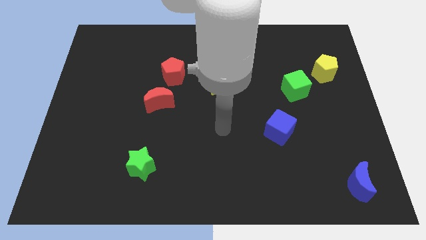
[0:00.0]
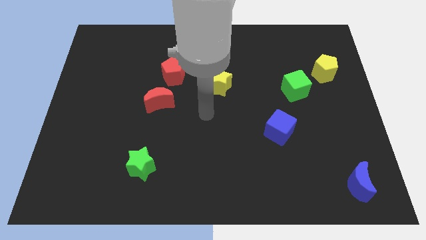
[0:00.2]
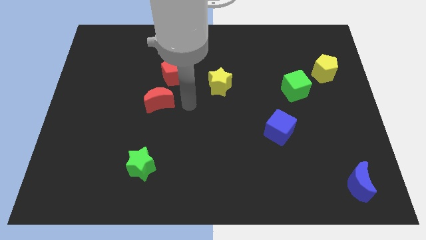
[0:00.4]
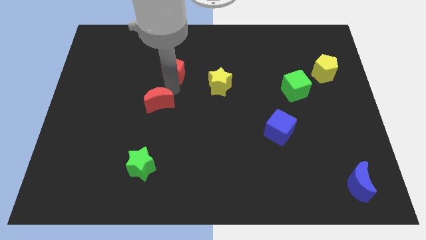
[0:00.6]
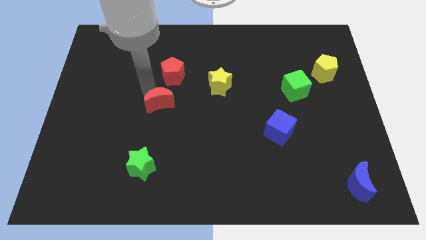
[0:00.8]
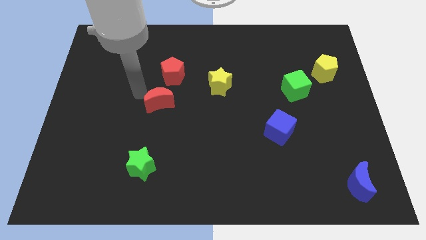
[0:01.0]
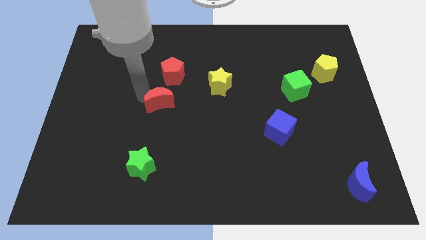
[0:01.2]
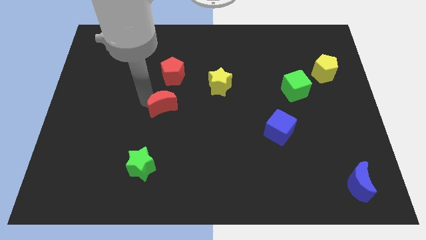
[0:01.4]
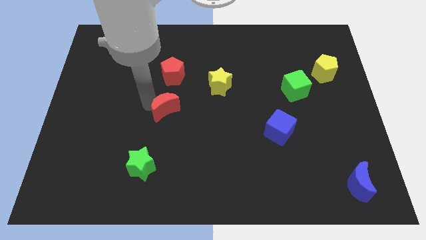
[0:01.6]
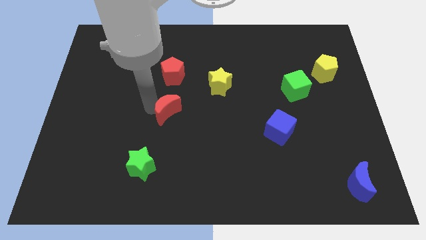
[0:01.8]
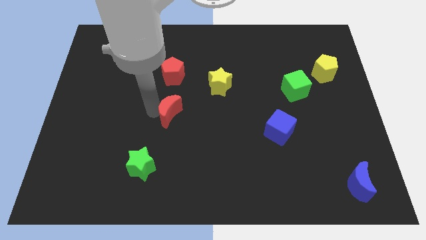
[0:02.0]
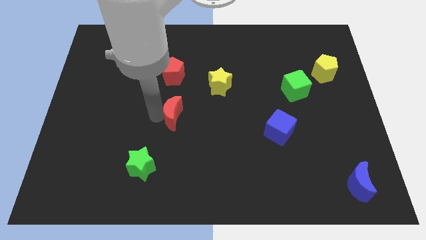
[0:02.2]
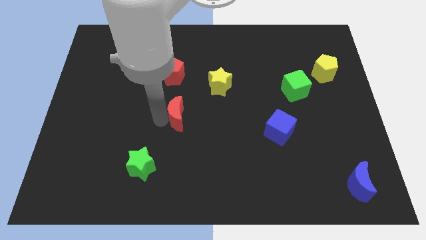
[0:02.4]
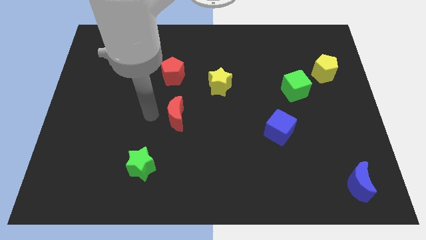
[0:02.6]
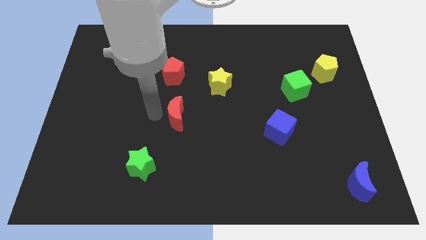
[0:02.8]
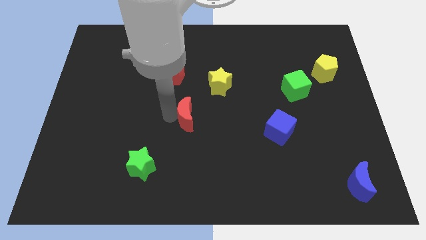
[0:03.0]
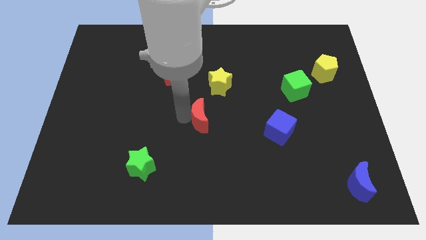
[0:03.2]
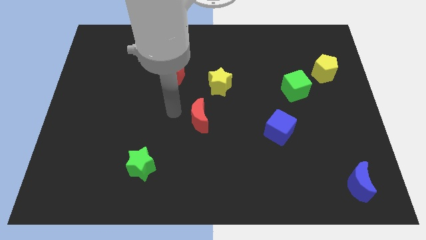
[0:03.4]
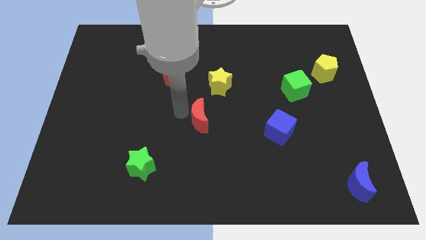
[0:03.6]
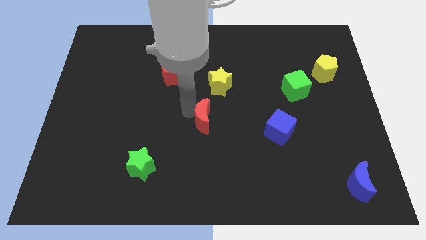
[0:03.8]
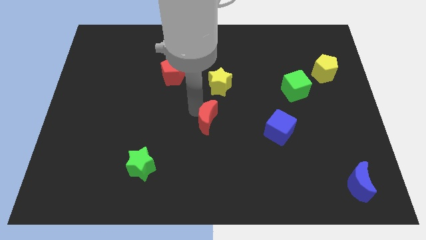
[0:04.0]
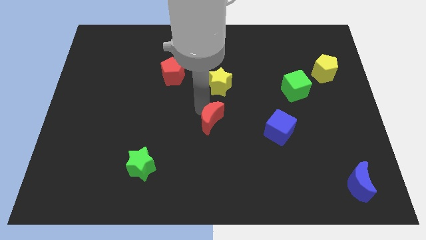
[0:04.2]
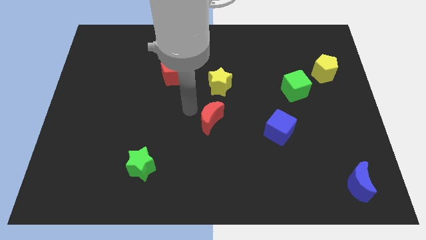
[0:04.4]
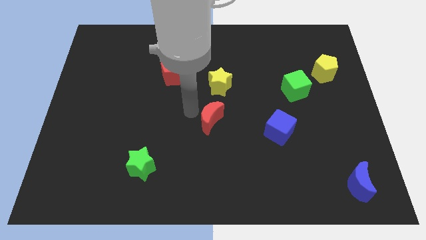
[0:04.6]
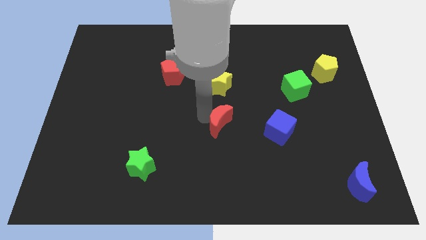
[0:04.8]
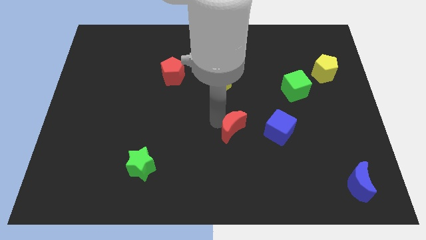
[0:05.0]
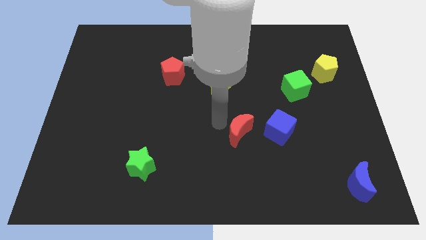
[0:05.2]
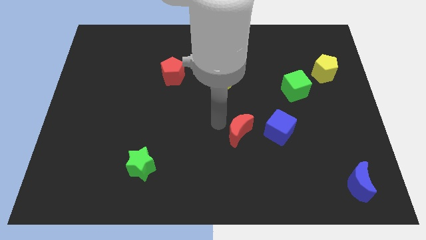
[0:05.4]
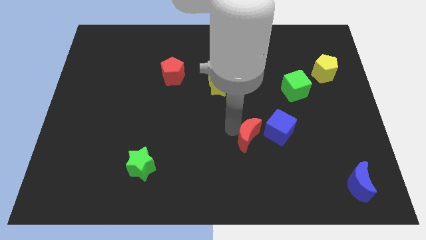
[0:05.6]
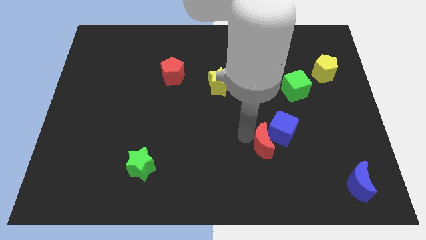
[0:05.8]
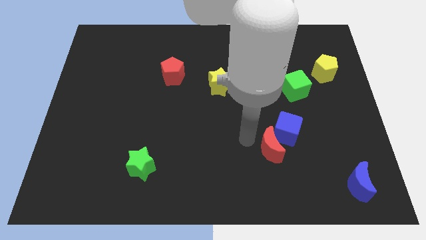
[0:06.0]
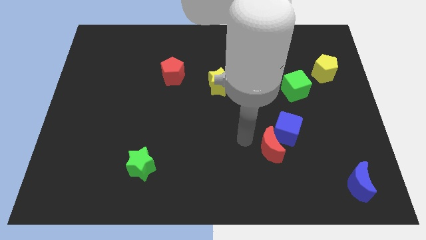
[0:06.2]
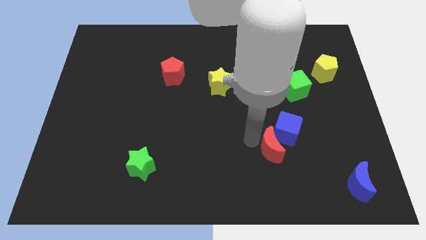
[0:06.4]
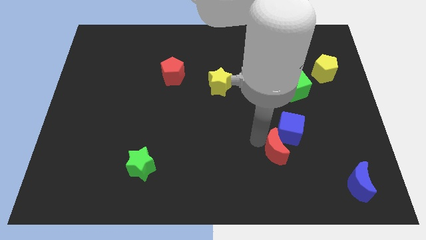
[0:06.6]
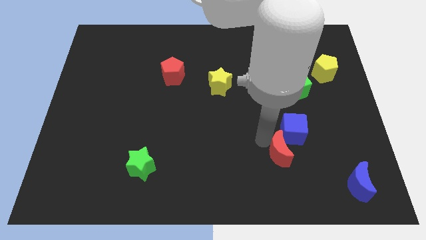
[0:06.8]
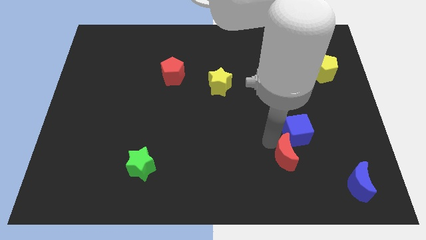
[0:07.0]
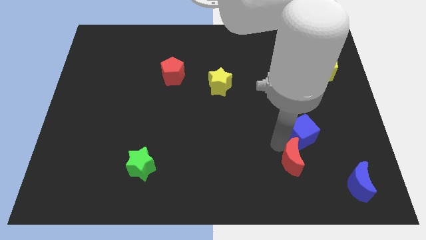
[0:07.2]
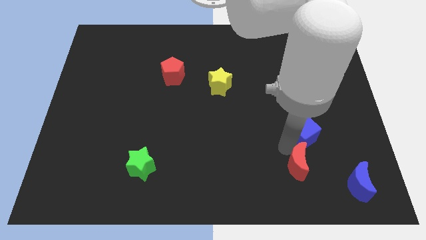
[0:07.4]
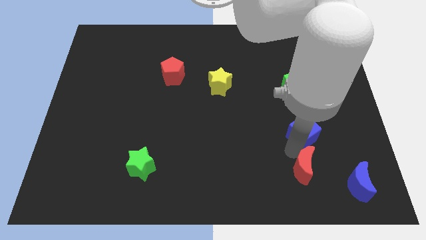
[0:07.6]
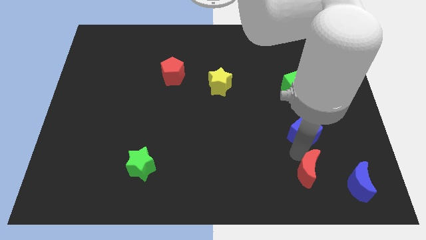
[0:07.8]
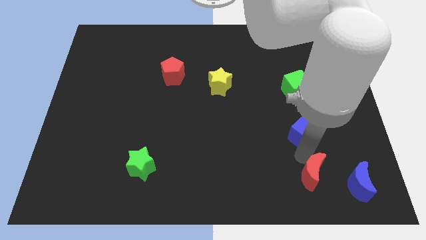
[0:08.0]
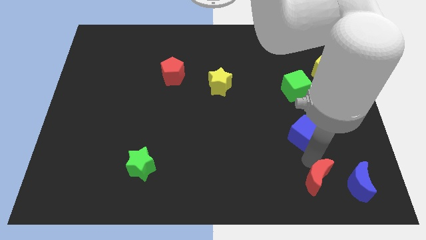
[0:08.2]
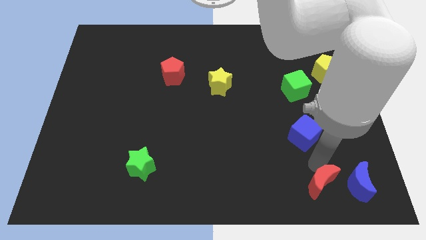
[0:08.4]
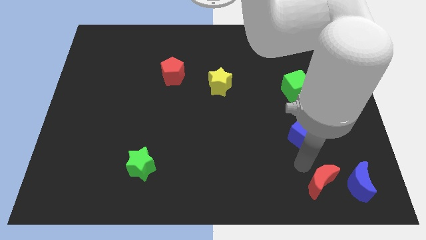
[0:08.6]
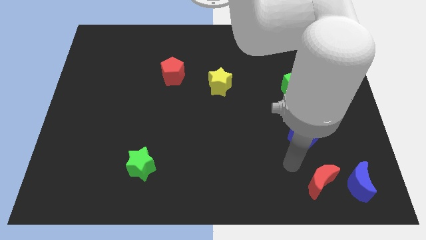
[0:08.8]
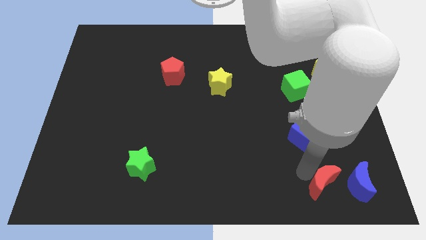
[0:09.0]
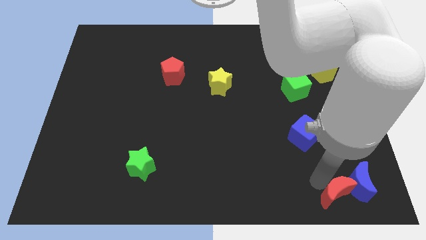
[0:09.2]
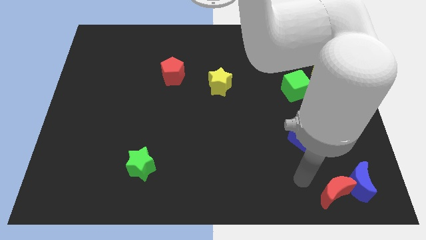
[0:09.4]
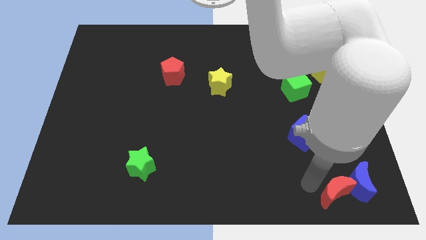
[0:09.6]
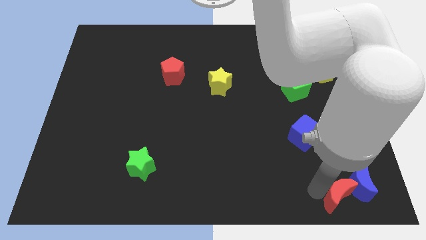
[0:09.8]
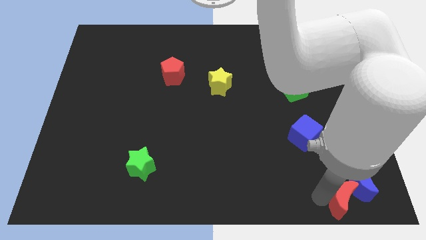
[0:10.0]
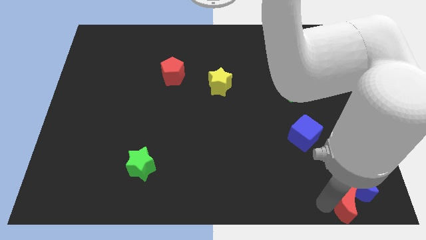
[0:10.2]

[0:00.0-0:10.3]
push the red moon to the bottom right corner

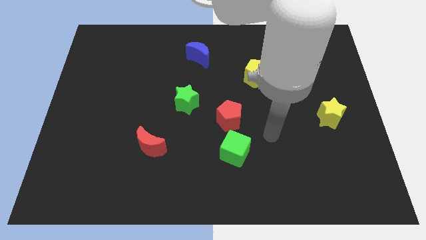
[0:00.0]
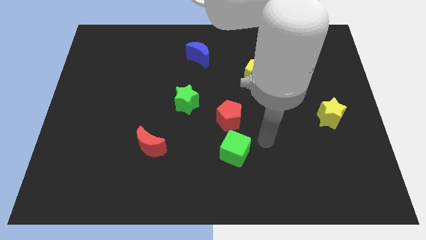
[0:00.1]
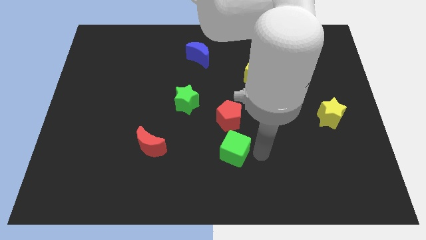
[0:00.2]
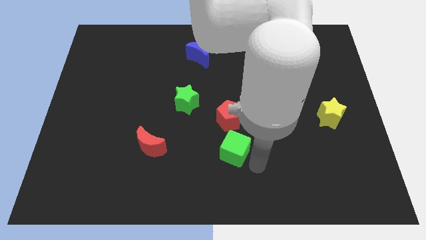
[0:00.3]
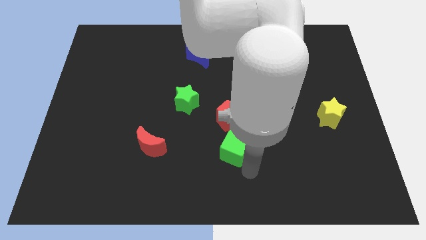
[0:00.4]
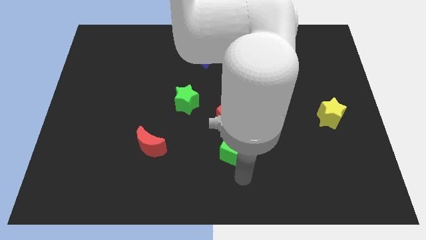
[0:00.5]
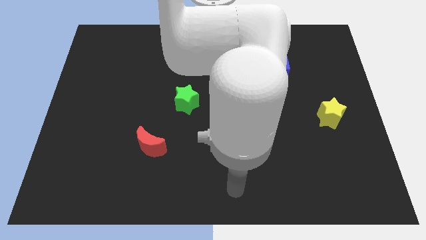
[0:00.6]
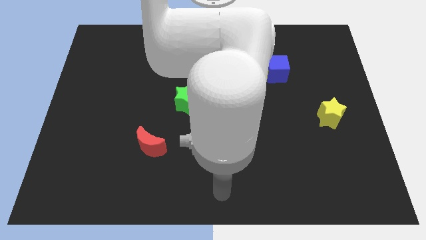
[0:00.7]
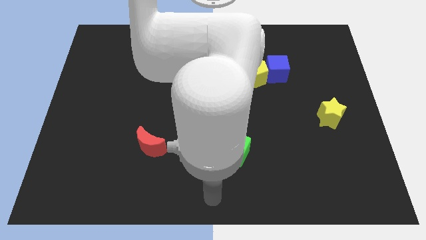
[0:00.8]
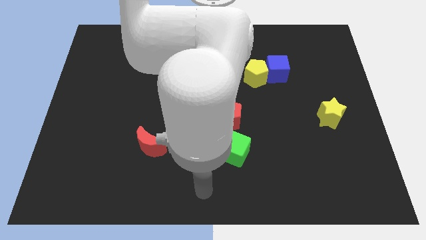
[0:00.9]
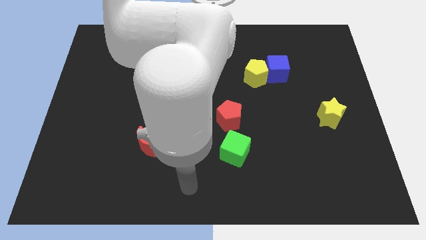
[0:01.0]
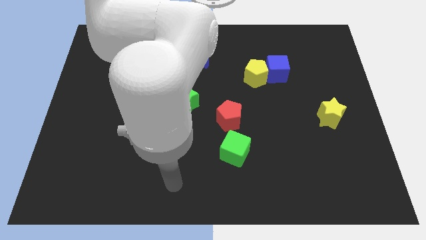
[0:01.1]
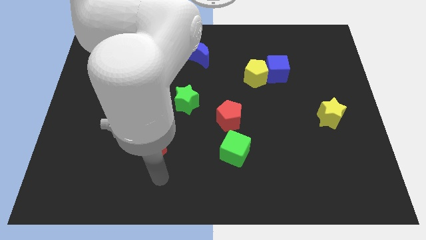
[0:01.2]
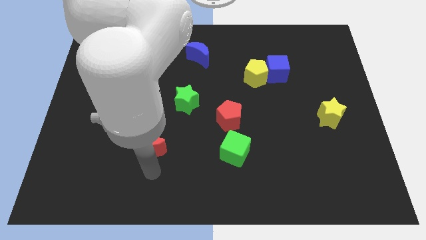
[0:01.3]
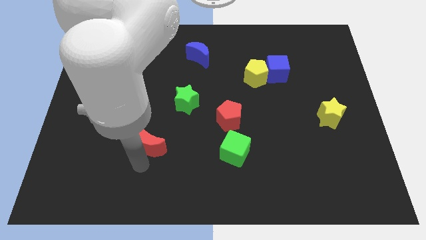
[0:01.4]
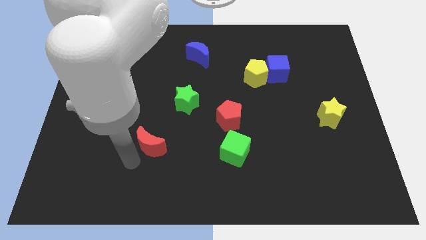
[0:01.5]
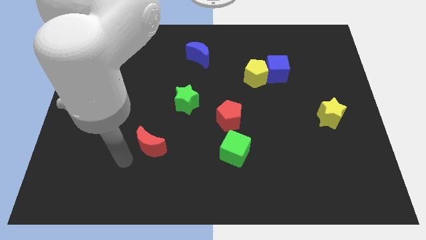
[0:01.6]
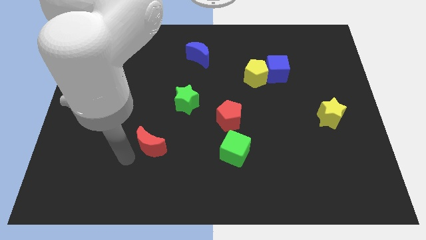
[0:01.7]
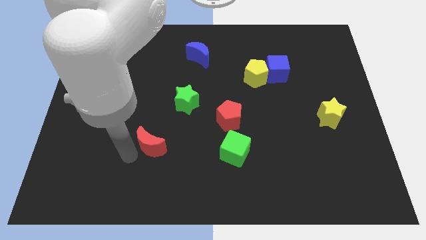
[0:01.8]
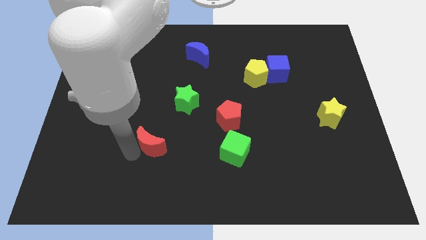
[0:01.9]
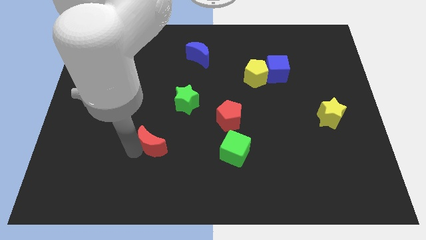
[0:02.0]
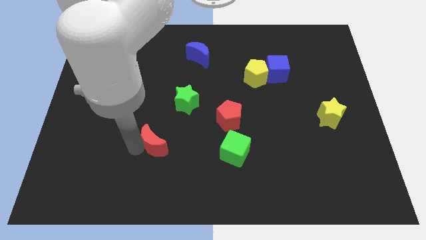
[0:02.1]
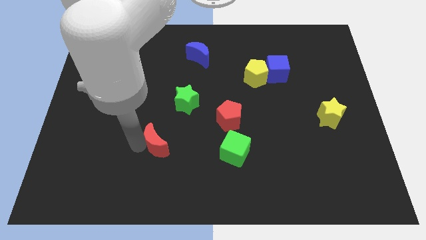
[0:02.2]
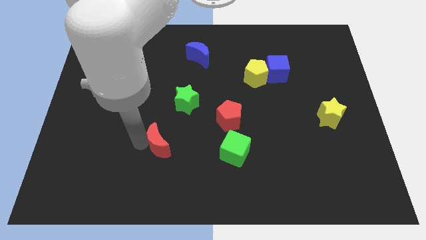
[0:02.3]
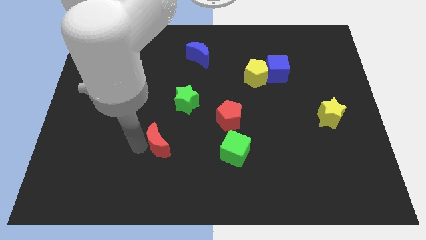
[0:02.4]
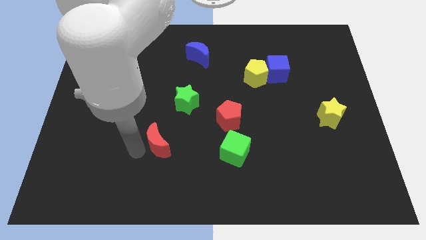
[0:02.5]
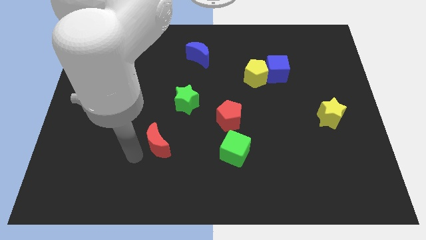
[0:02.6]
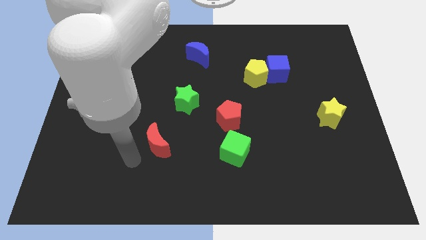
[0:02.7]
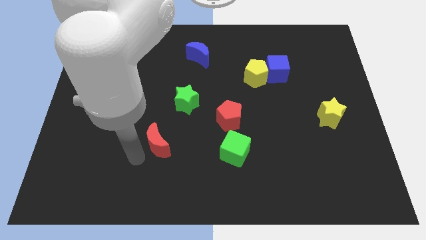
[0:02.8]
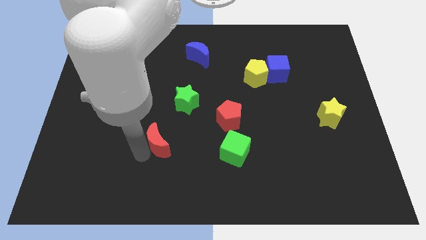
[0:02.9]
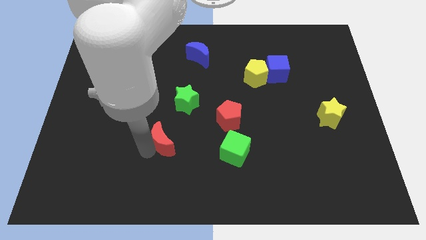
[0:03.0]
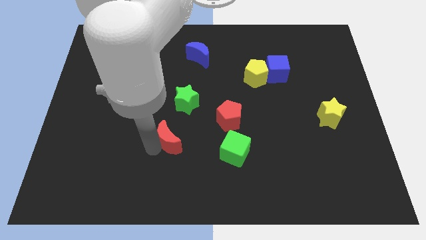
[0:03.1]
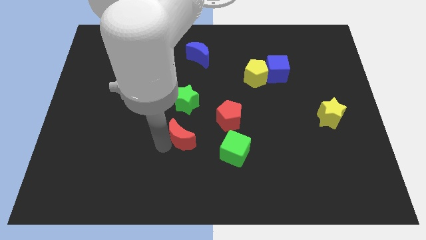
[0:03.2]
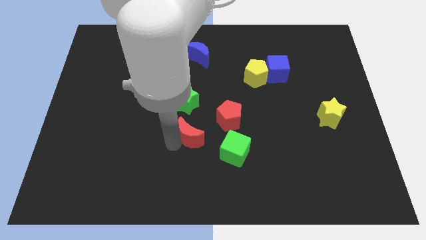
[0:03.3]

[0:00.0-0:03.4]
slide the red moon to the center
